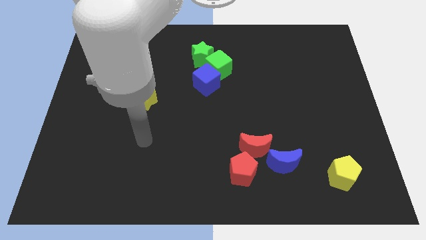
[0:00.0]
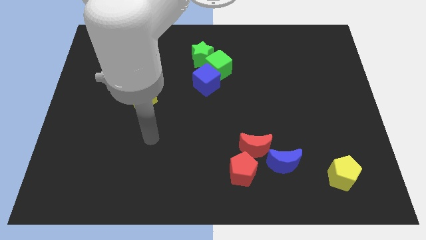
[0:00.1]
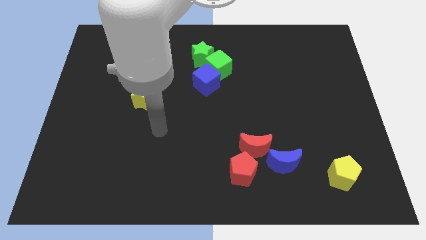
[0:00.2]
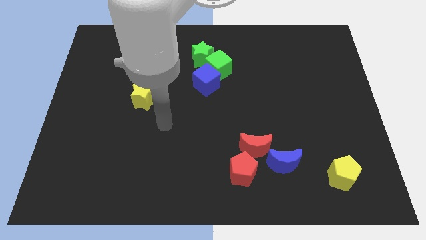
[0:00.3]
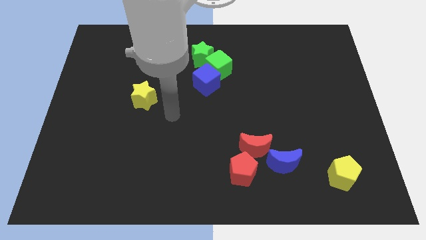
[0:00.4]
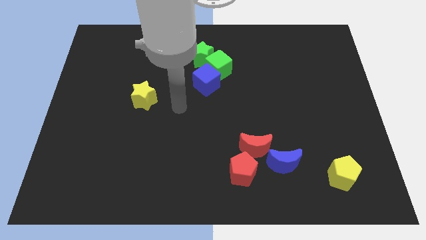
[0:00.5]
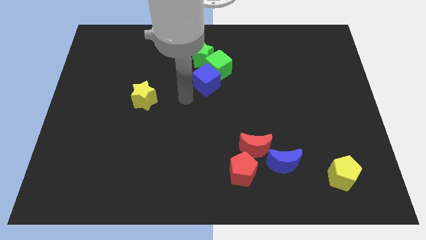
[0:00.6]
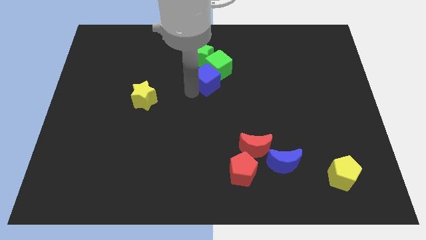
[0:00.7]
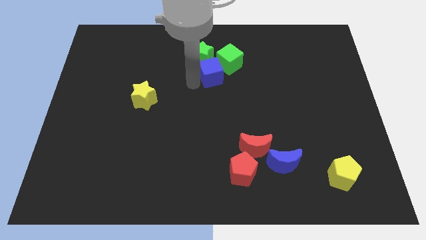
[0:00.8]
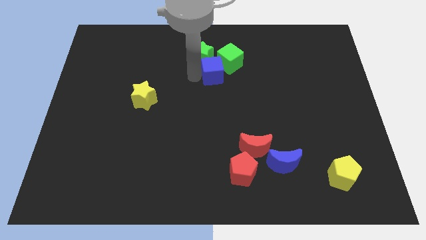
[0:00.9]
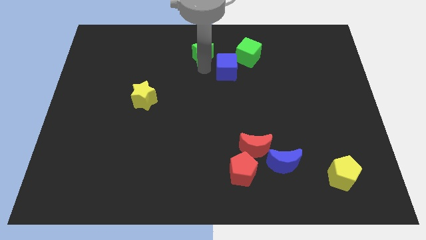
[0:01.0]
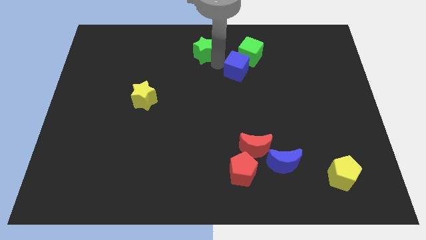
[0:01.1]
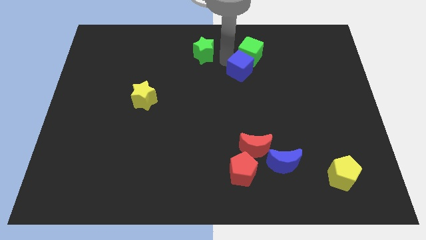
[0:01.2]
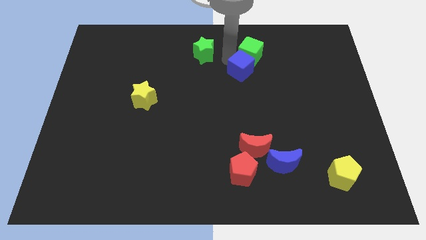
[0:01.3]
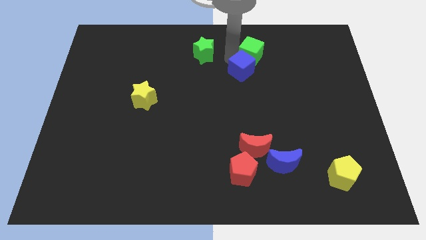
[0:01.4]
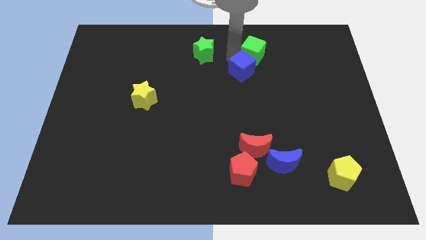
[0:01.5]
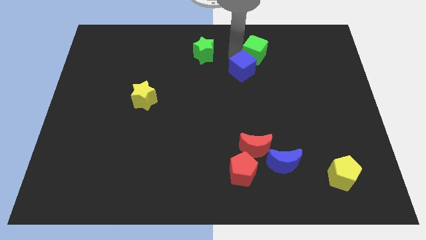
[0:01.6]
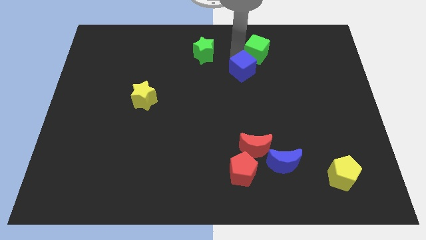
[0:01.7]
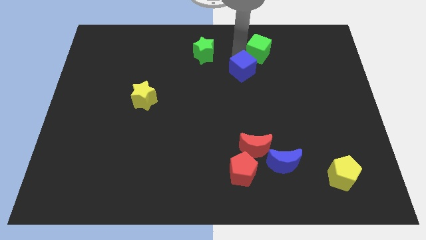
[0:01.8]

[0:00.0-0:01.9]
move the green cube away from the green star and blue cube

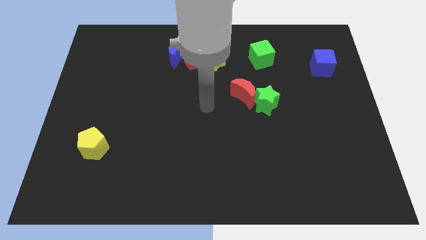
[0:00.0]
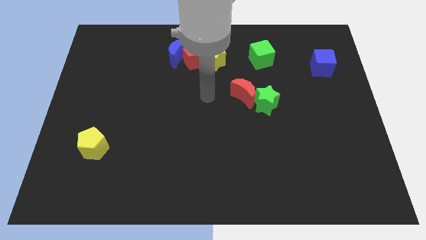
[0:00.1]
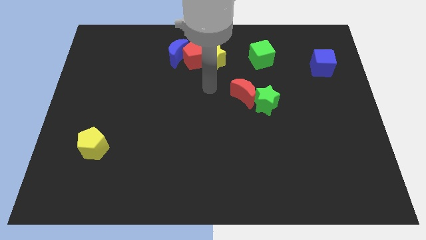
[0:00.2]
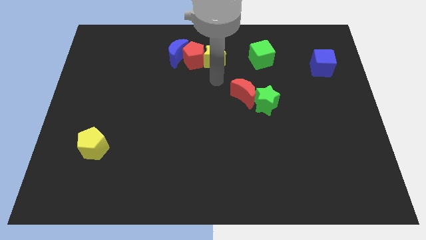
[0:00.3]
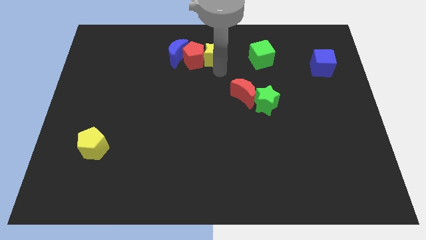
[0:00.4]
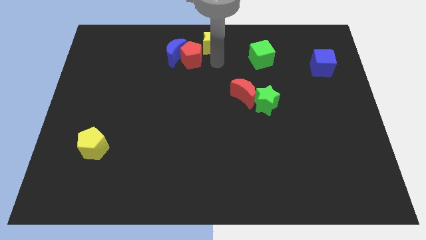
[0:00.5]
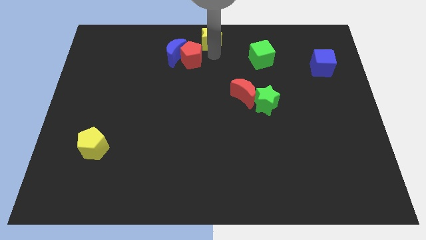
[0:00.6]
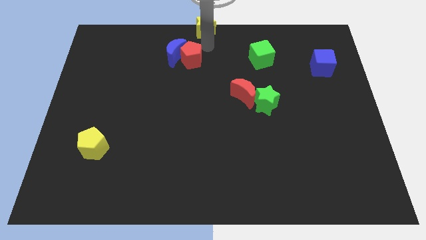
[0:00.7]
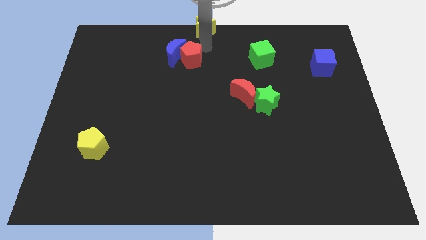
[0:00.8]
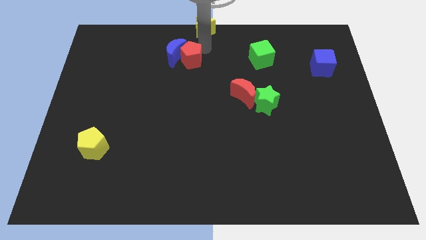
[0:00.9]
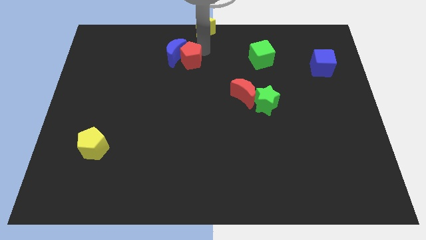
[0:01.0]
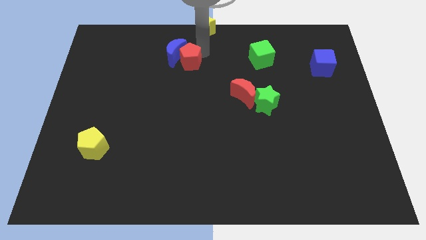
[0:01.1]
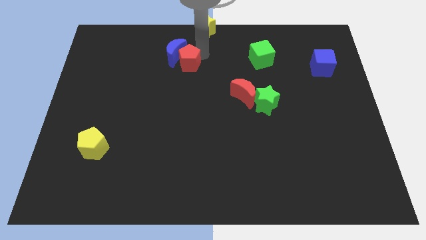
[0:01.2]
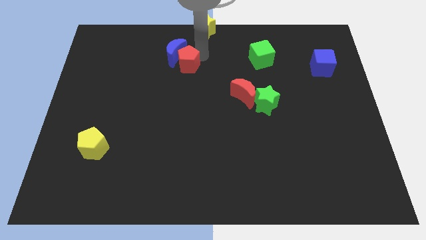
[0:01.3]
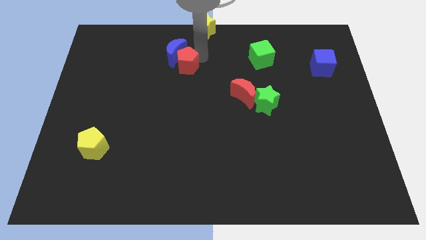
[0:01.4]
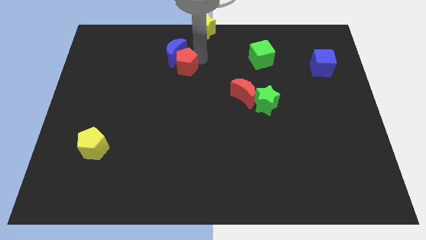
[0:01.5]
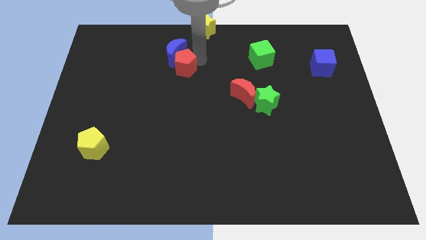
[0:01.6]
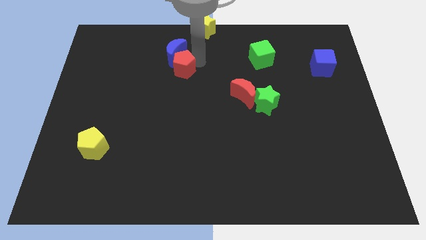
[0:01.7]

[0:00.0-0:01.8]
separate the red pentagon from the blue moon and yellow star

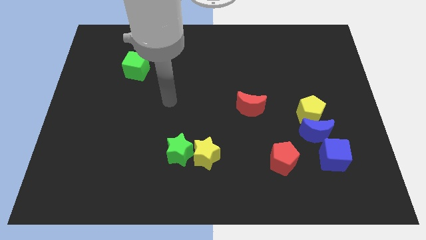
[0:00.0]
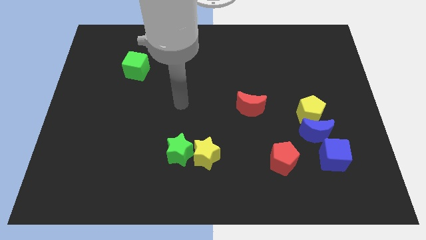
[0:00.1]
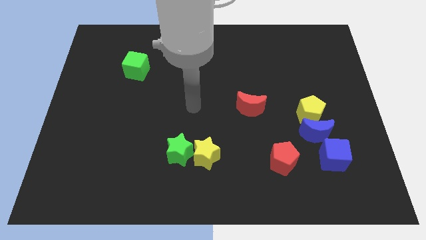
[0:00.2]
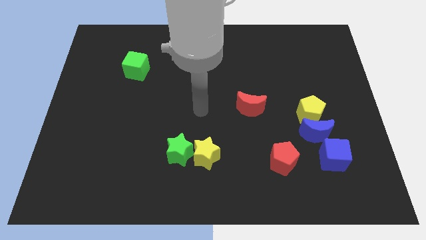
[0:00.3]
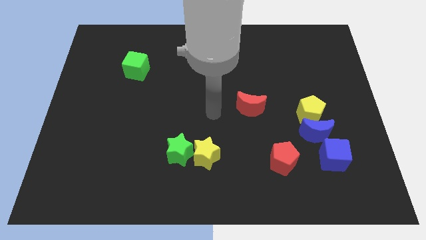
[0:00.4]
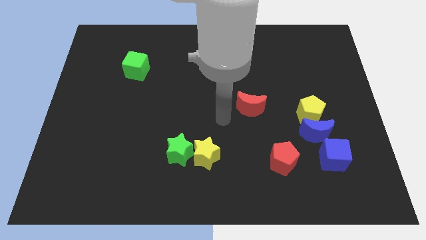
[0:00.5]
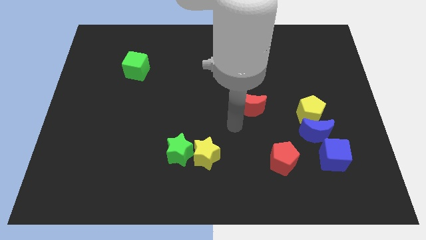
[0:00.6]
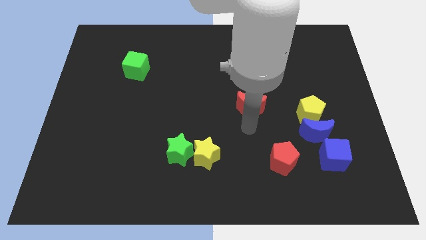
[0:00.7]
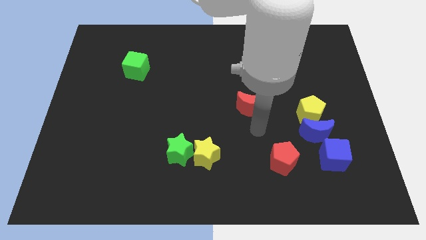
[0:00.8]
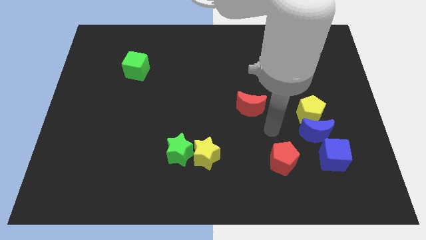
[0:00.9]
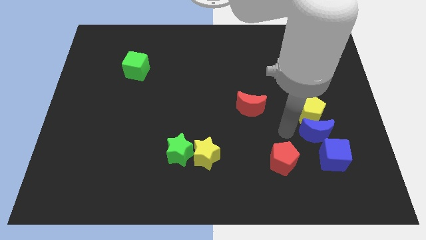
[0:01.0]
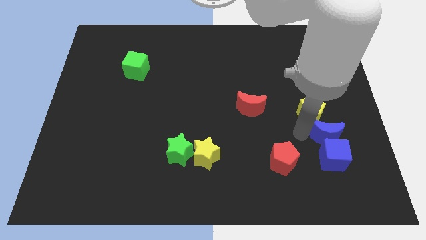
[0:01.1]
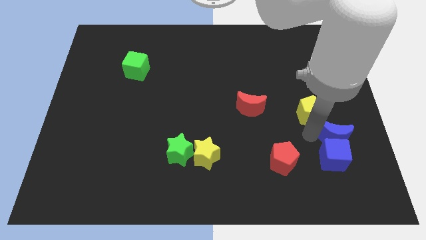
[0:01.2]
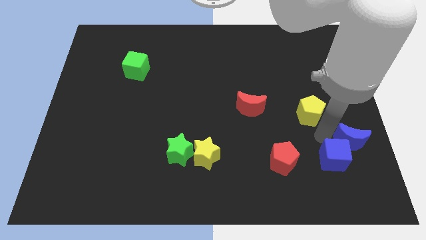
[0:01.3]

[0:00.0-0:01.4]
pull the yellow pentagon apart from the blue moon

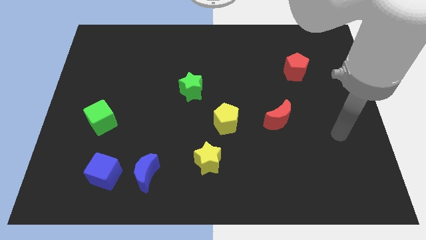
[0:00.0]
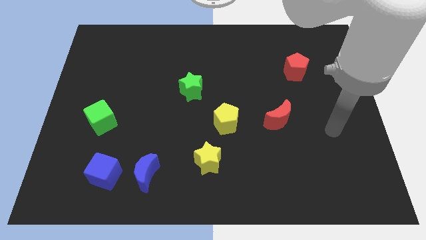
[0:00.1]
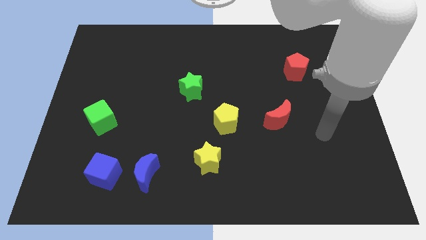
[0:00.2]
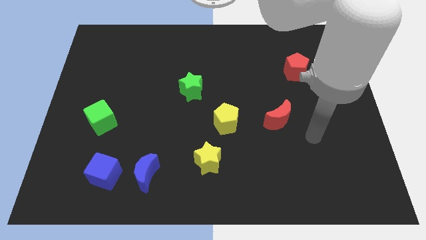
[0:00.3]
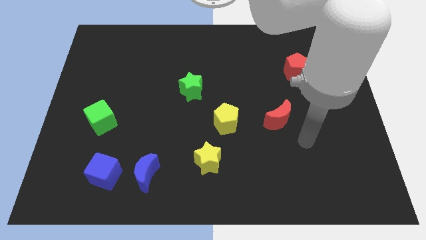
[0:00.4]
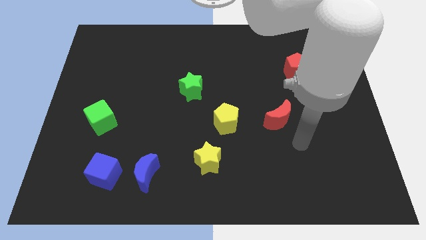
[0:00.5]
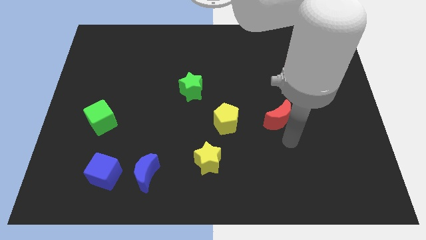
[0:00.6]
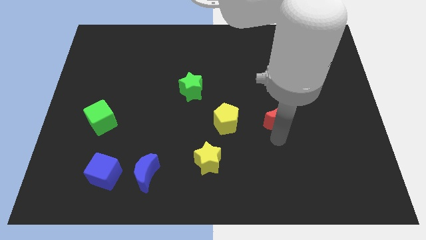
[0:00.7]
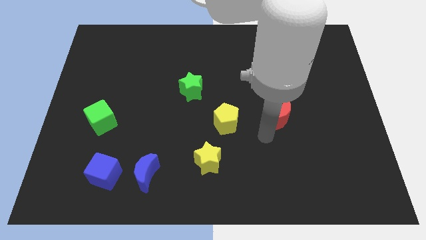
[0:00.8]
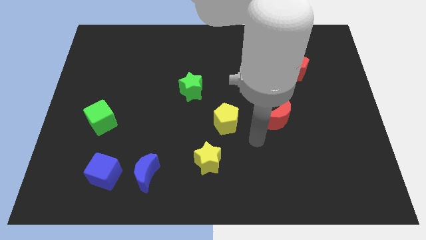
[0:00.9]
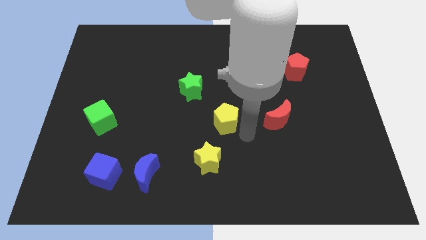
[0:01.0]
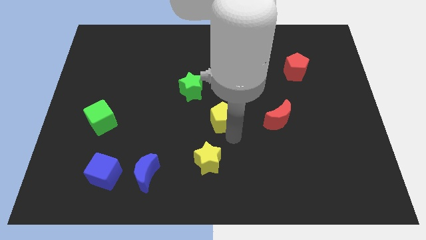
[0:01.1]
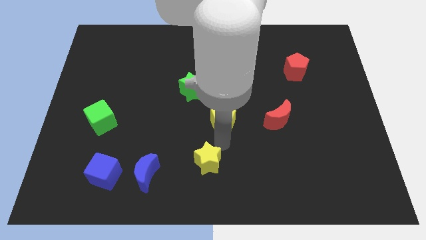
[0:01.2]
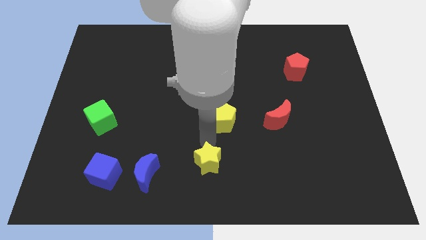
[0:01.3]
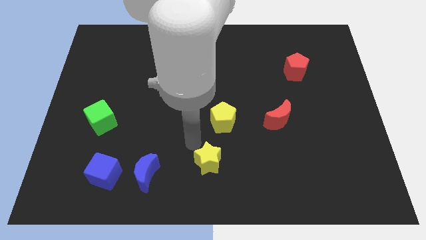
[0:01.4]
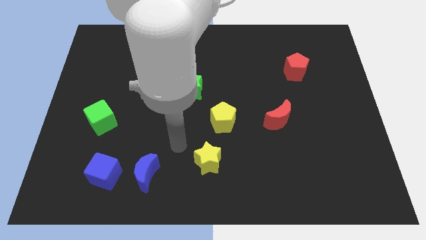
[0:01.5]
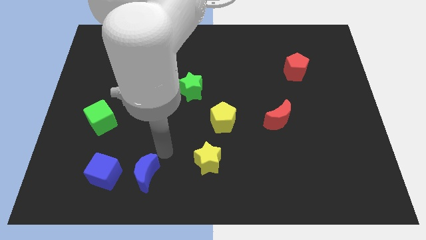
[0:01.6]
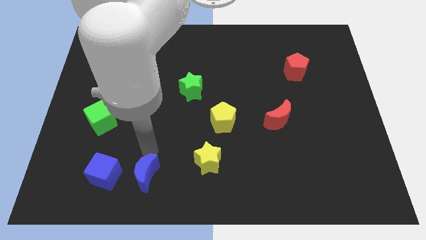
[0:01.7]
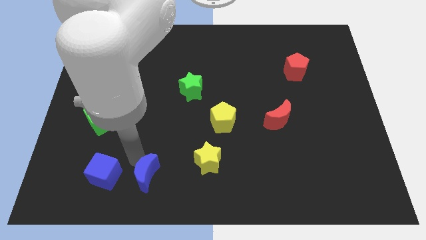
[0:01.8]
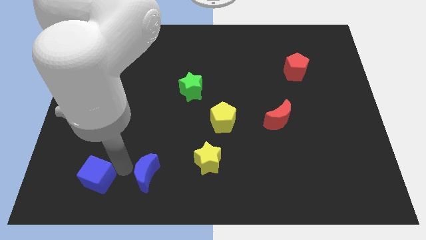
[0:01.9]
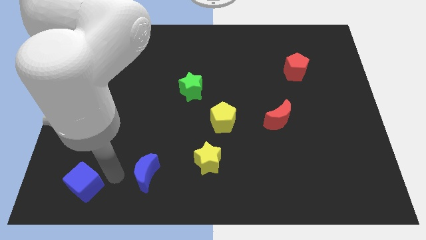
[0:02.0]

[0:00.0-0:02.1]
pull the blue moon apart from the blue cube

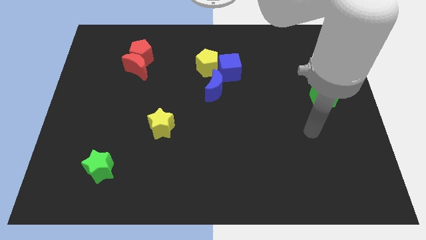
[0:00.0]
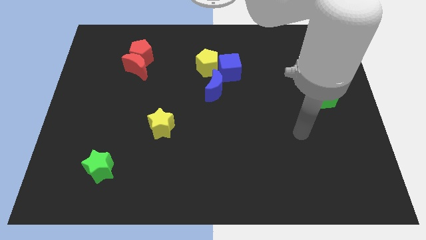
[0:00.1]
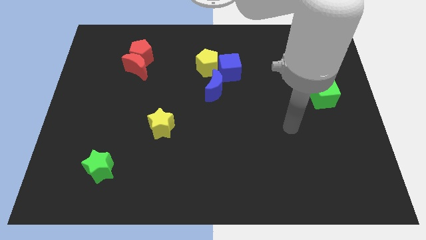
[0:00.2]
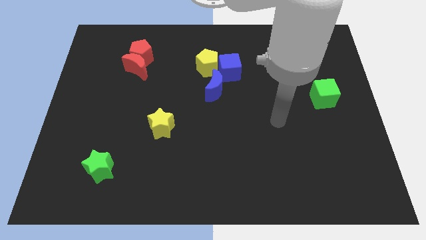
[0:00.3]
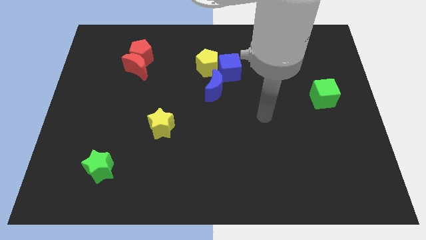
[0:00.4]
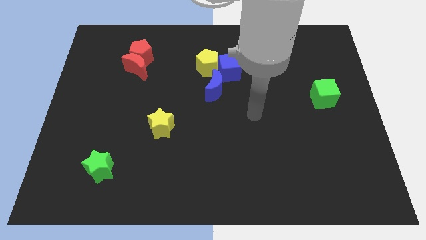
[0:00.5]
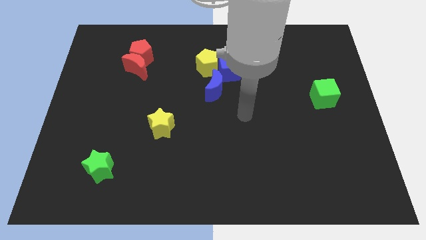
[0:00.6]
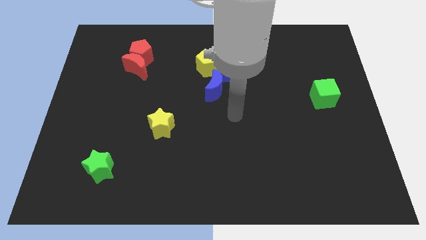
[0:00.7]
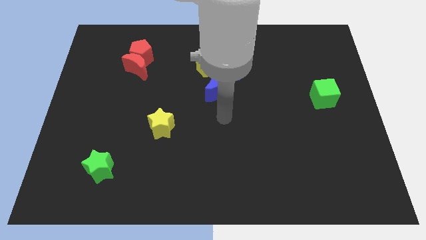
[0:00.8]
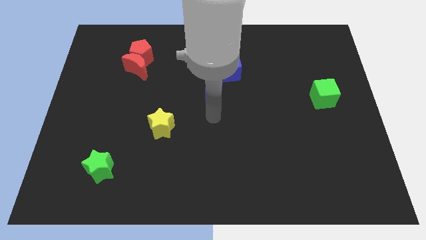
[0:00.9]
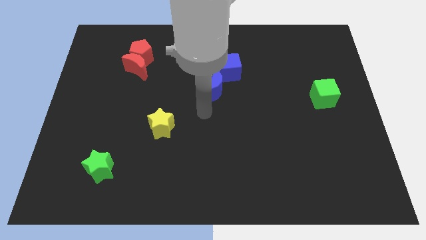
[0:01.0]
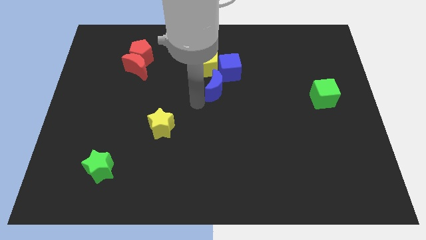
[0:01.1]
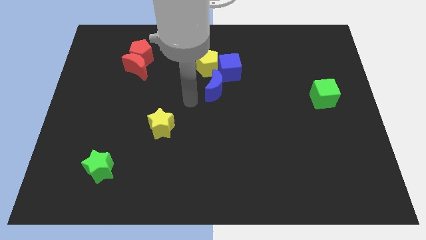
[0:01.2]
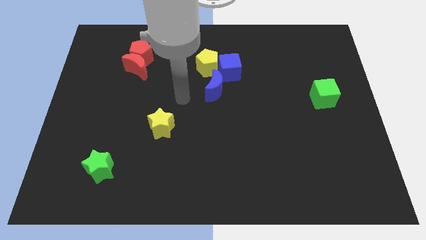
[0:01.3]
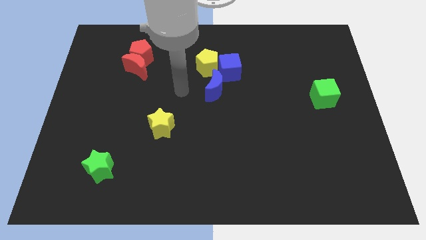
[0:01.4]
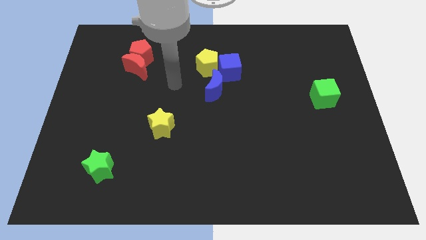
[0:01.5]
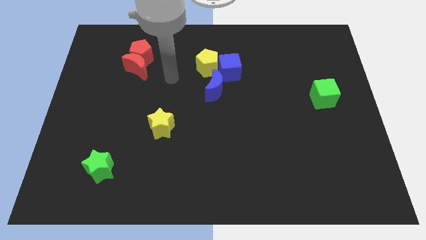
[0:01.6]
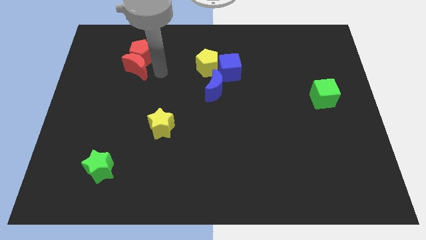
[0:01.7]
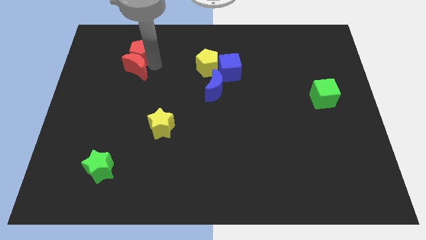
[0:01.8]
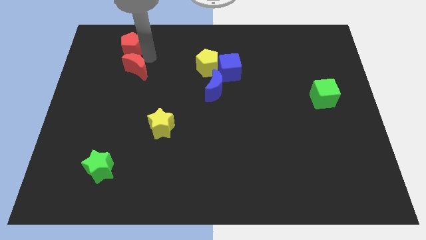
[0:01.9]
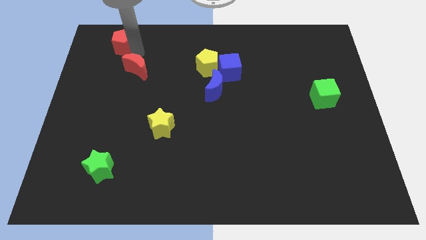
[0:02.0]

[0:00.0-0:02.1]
separate the red moon from the red pentagon
